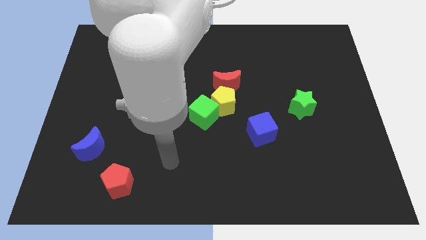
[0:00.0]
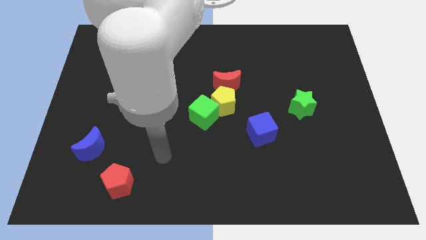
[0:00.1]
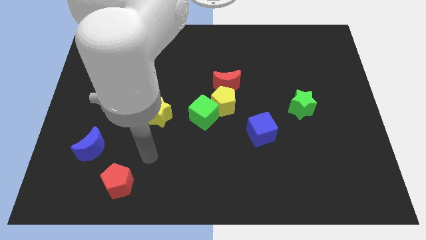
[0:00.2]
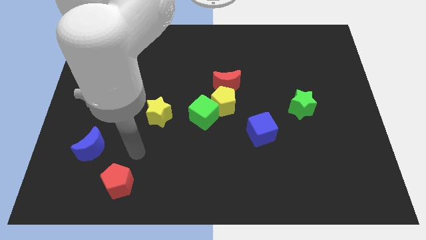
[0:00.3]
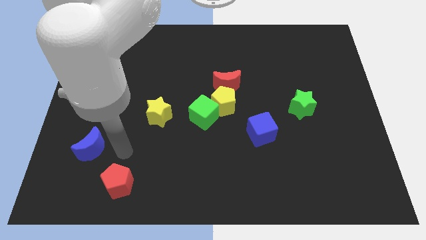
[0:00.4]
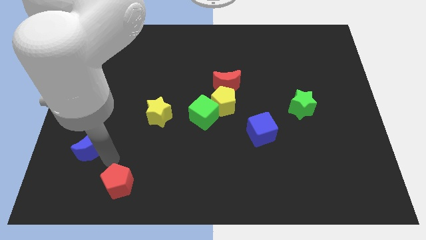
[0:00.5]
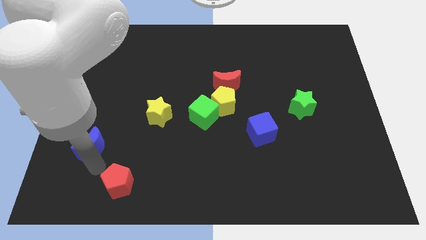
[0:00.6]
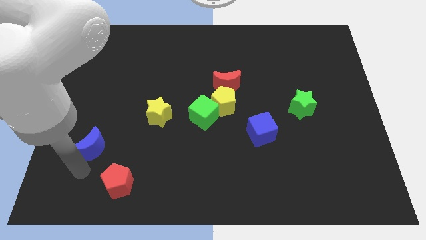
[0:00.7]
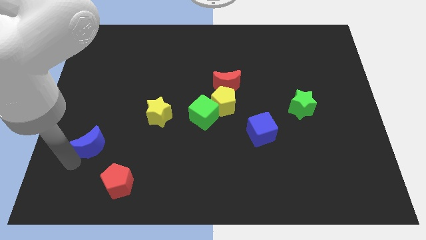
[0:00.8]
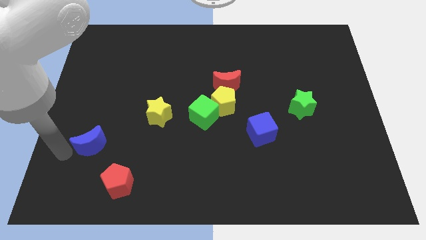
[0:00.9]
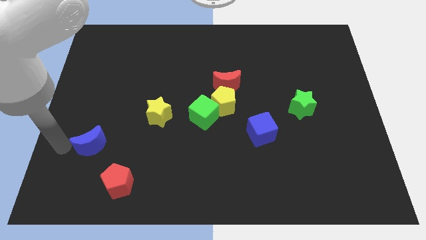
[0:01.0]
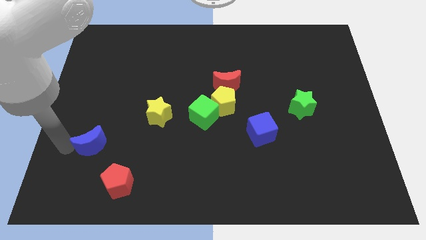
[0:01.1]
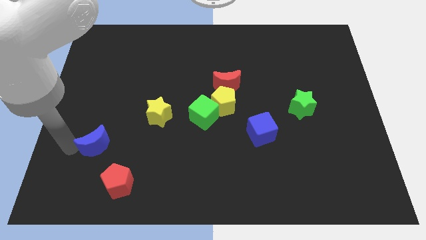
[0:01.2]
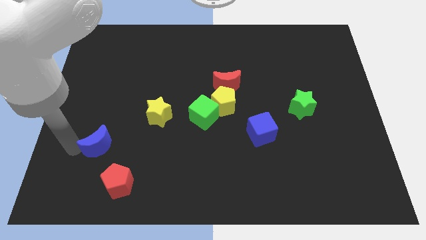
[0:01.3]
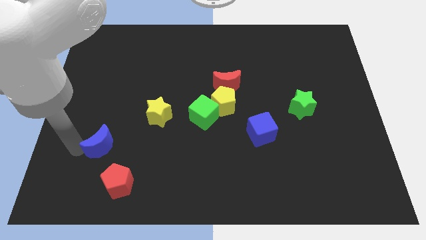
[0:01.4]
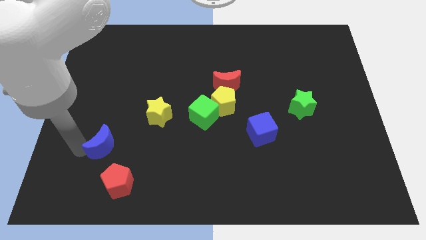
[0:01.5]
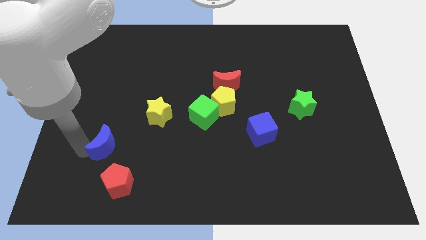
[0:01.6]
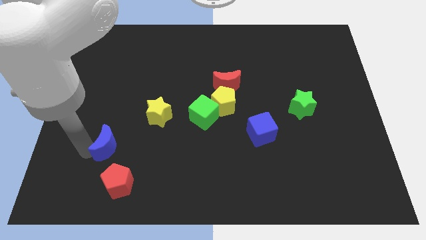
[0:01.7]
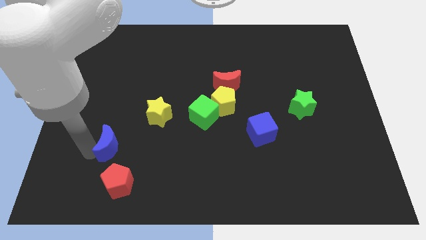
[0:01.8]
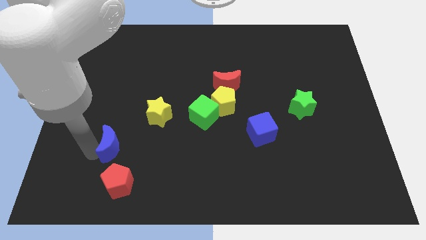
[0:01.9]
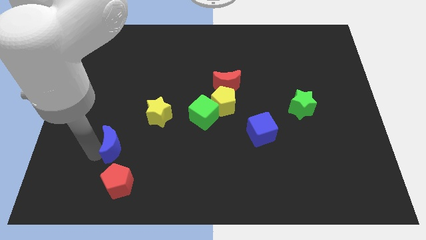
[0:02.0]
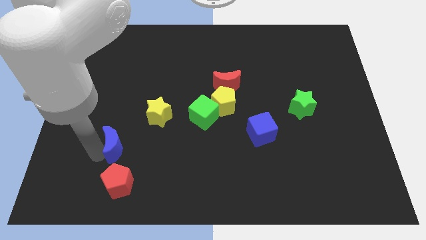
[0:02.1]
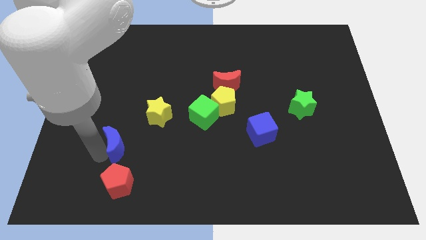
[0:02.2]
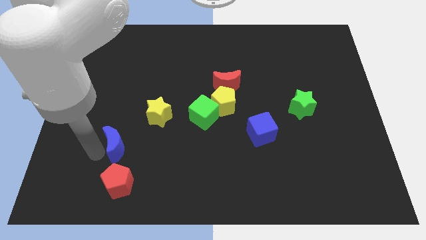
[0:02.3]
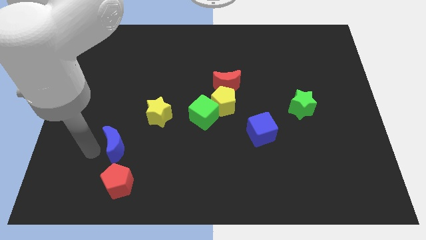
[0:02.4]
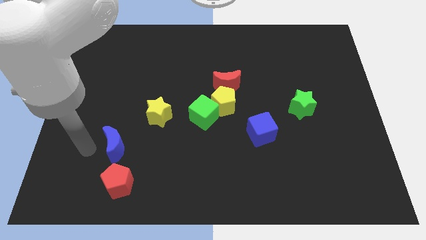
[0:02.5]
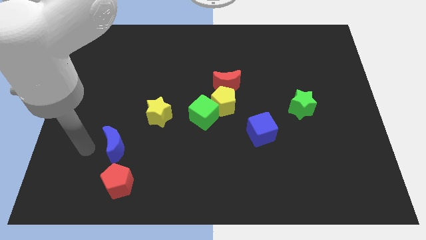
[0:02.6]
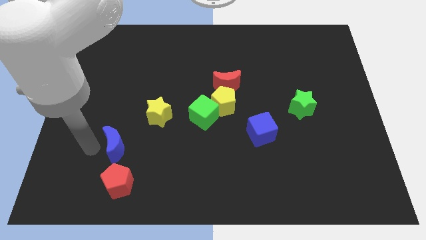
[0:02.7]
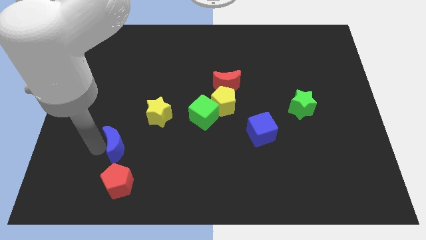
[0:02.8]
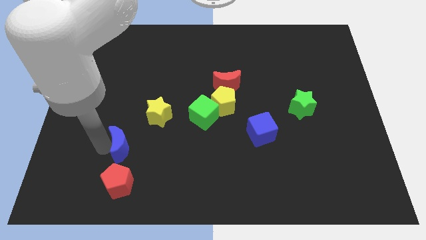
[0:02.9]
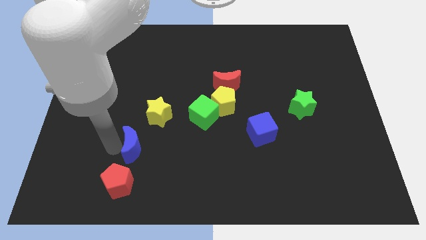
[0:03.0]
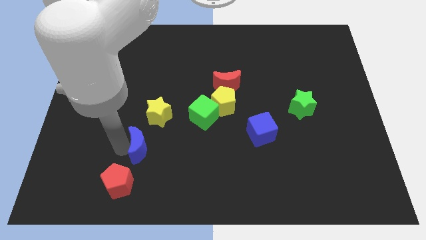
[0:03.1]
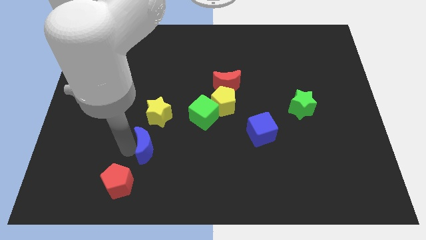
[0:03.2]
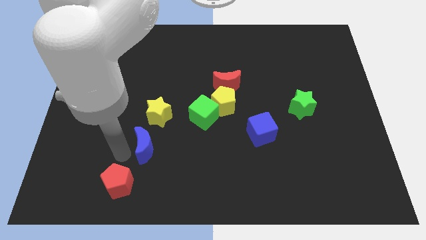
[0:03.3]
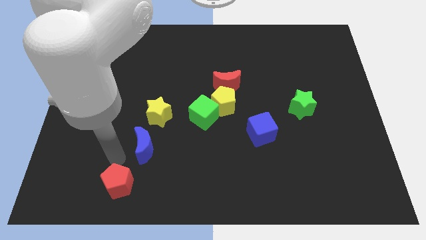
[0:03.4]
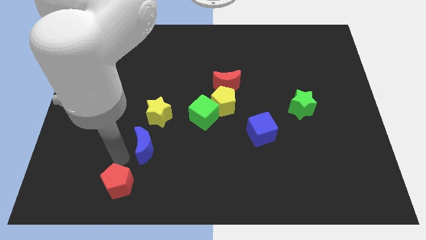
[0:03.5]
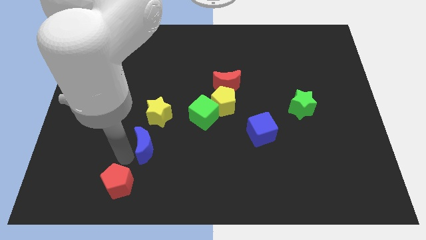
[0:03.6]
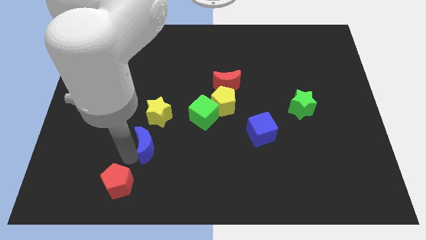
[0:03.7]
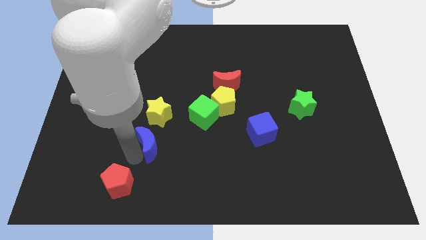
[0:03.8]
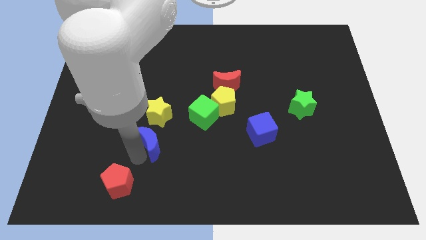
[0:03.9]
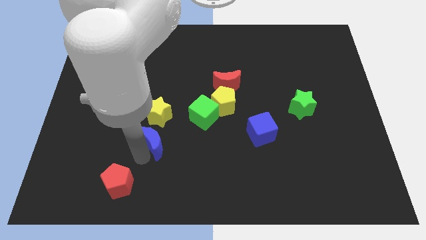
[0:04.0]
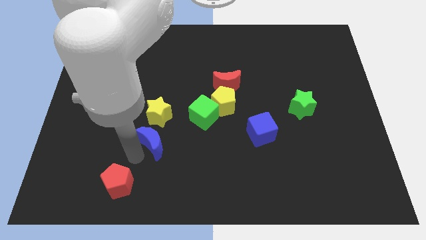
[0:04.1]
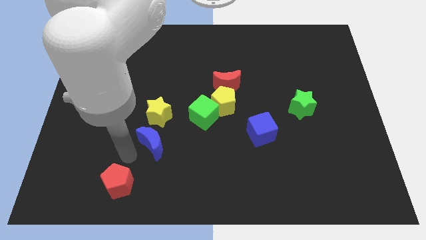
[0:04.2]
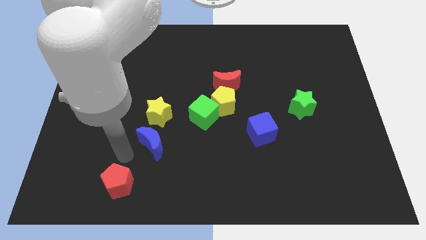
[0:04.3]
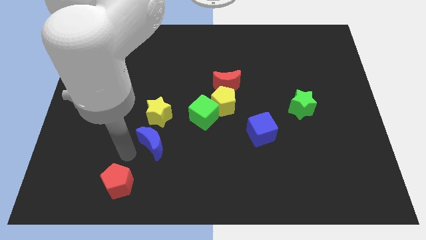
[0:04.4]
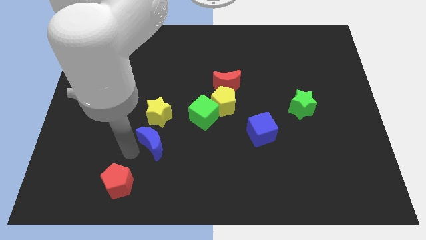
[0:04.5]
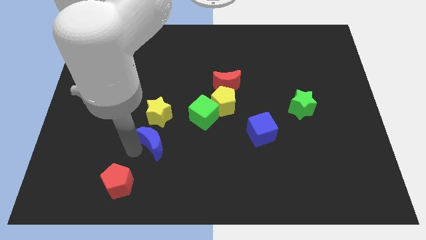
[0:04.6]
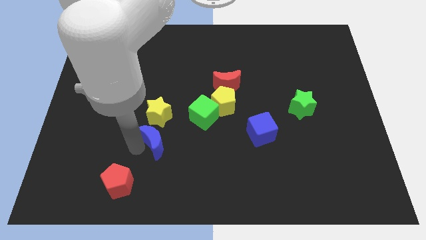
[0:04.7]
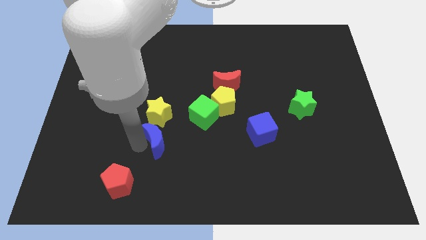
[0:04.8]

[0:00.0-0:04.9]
push the blue moon to the bottom left of the green cube

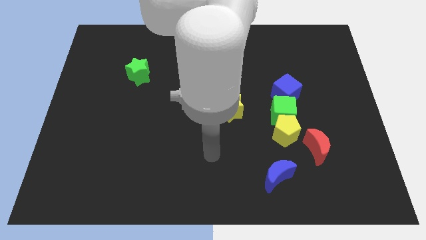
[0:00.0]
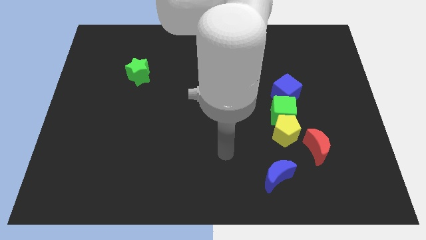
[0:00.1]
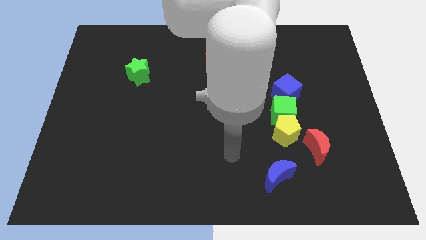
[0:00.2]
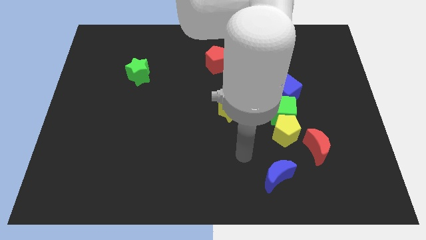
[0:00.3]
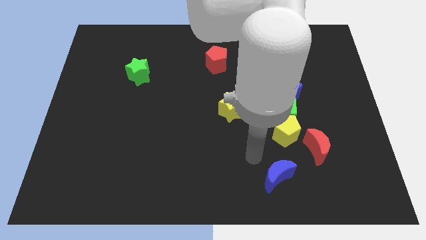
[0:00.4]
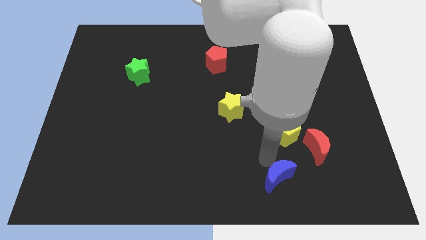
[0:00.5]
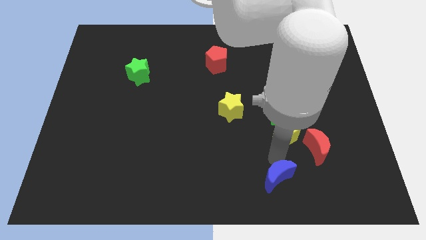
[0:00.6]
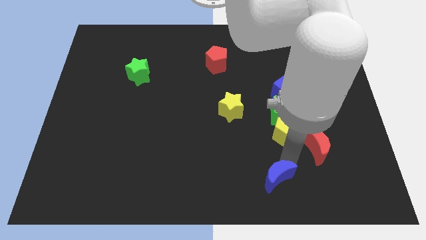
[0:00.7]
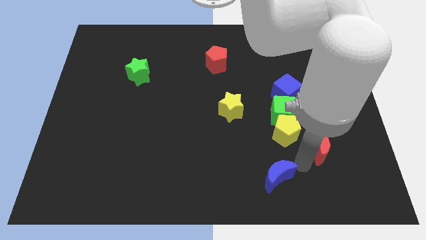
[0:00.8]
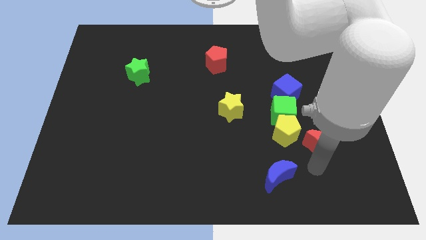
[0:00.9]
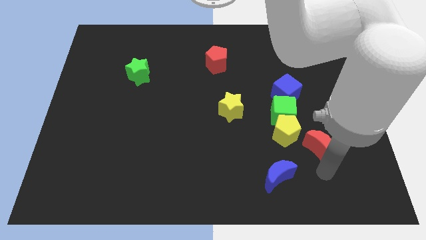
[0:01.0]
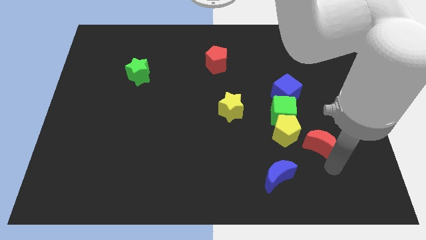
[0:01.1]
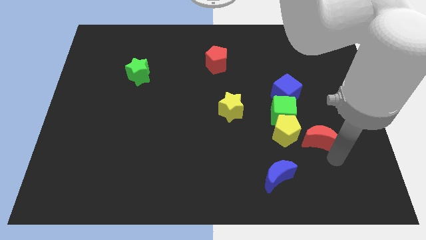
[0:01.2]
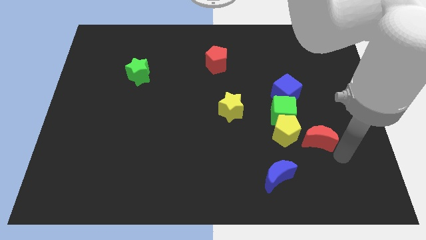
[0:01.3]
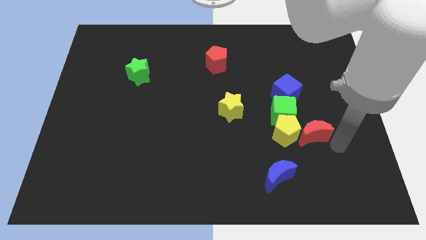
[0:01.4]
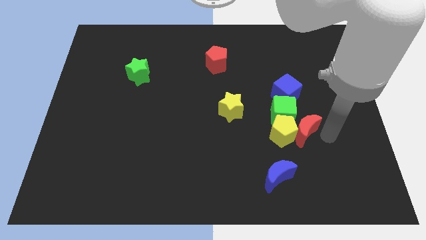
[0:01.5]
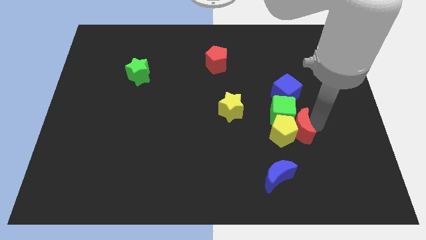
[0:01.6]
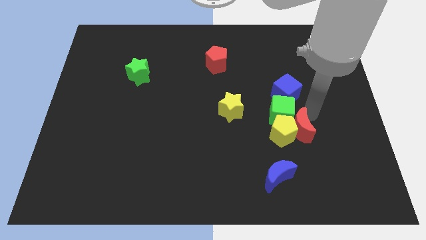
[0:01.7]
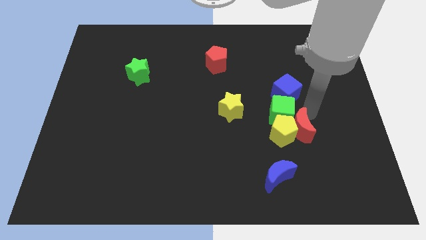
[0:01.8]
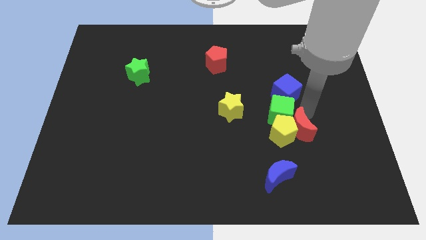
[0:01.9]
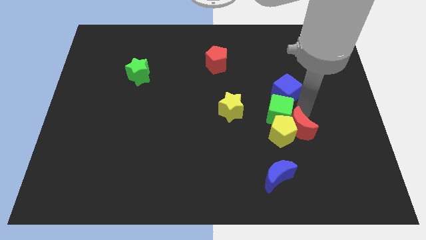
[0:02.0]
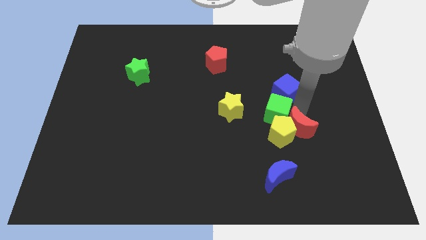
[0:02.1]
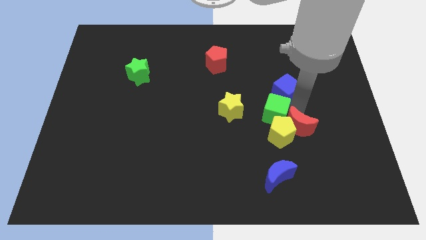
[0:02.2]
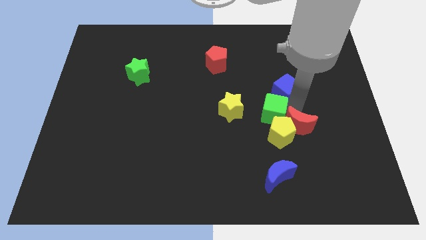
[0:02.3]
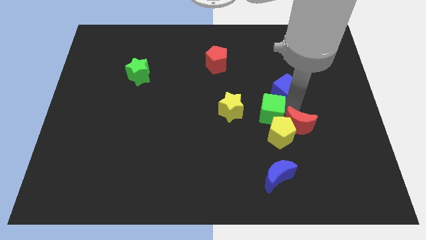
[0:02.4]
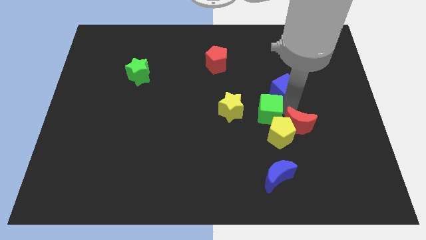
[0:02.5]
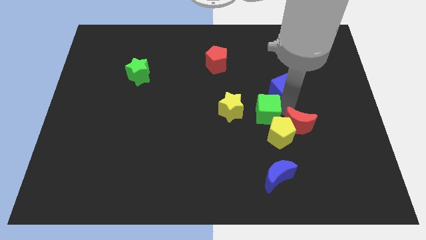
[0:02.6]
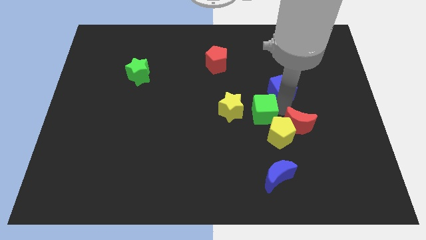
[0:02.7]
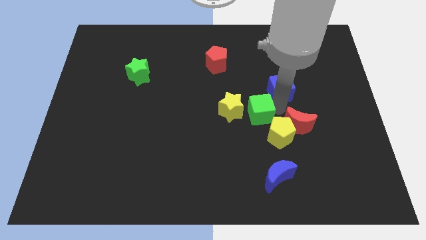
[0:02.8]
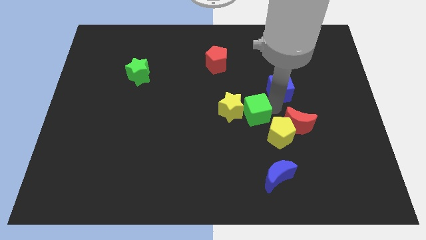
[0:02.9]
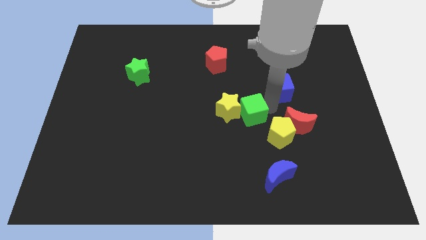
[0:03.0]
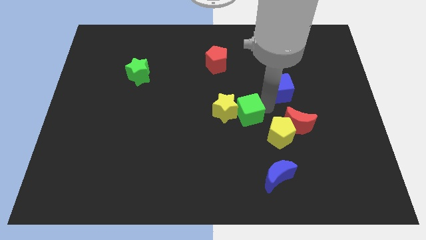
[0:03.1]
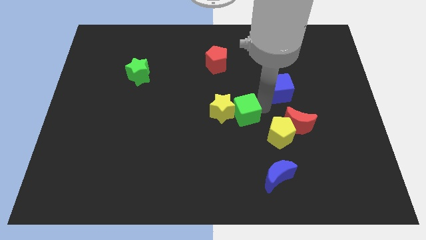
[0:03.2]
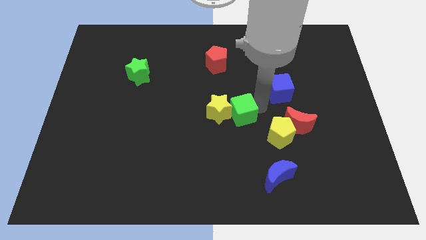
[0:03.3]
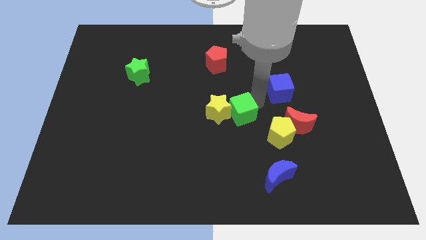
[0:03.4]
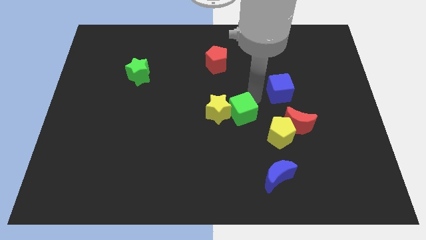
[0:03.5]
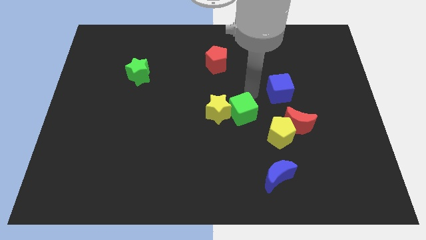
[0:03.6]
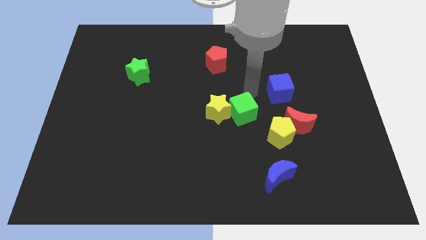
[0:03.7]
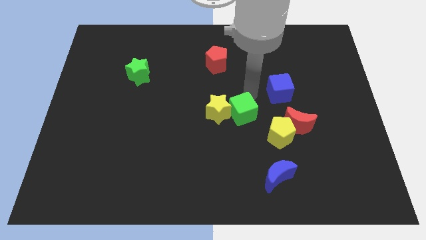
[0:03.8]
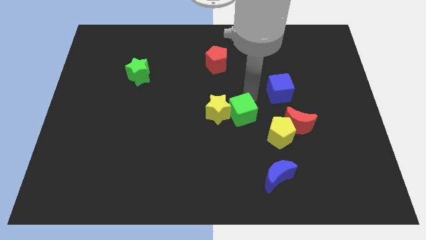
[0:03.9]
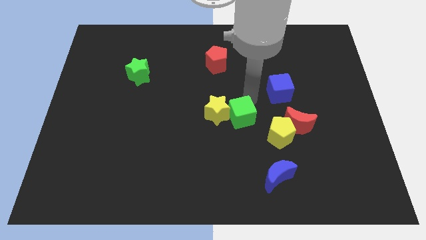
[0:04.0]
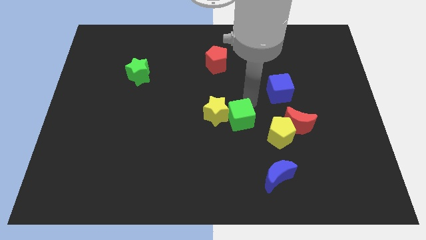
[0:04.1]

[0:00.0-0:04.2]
slide the green cube left of the yellow pentagon
